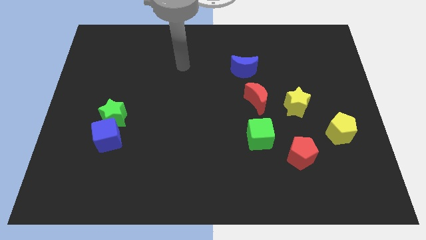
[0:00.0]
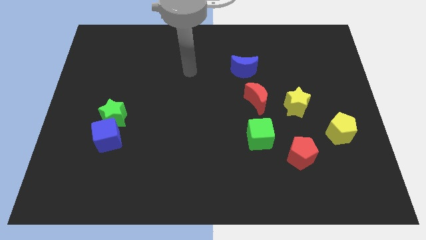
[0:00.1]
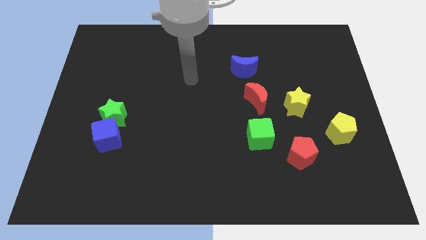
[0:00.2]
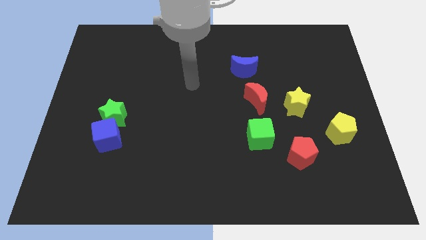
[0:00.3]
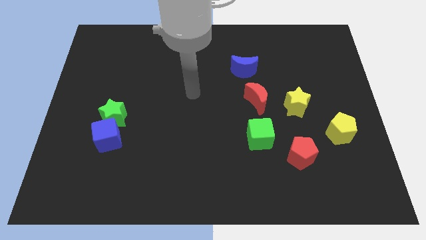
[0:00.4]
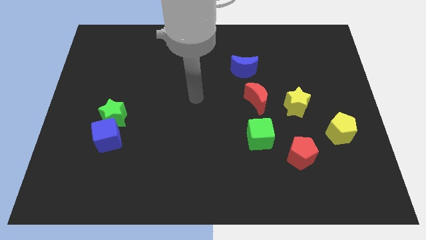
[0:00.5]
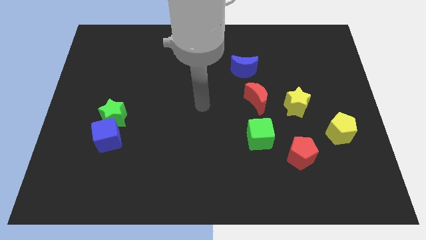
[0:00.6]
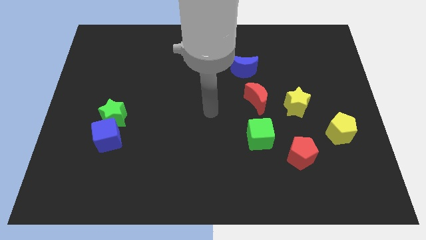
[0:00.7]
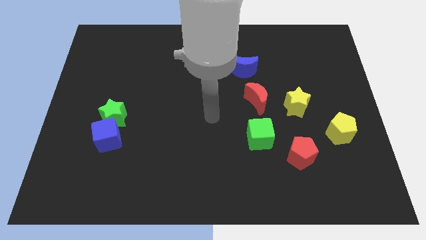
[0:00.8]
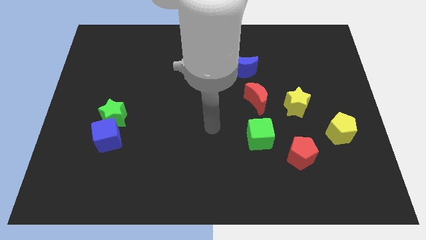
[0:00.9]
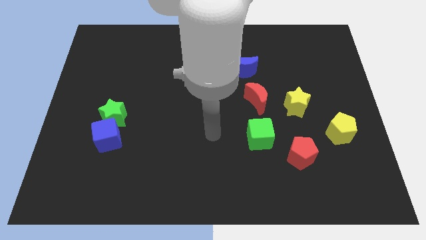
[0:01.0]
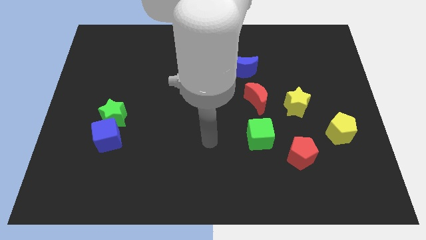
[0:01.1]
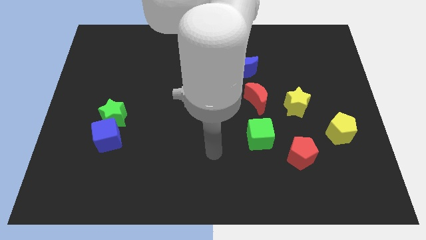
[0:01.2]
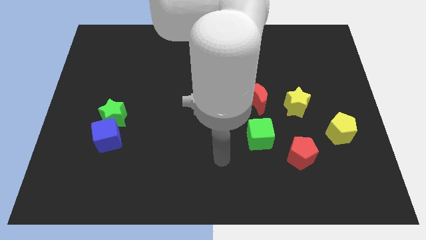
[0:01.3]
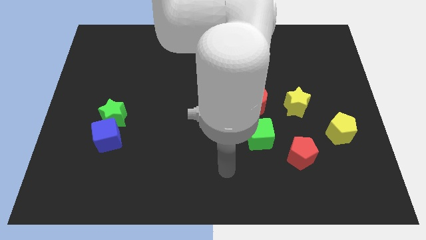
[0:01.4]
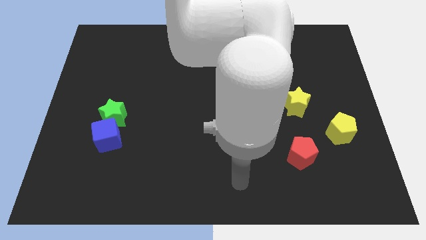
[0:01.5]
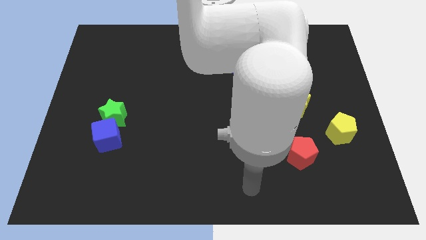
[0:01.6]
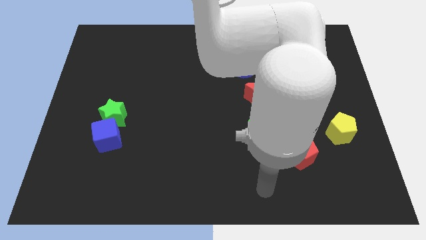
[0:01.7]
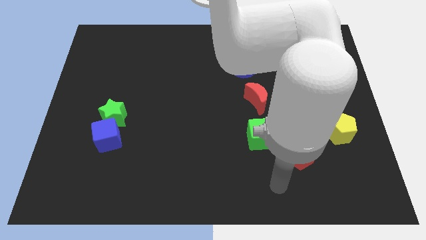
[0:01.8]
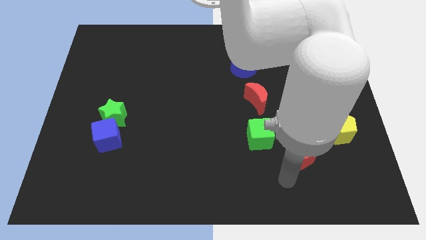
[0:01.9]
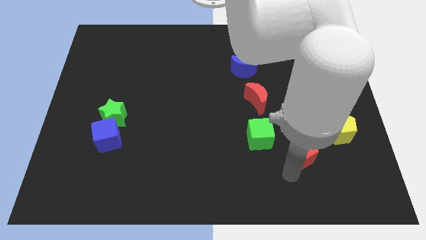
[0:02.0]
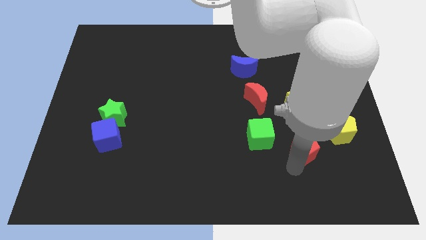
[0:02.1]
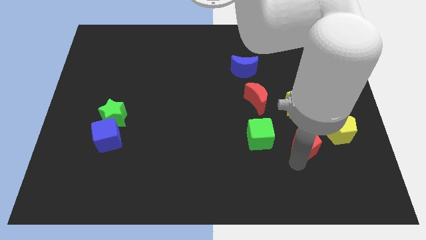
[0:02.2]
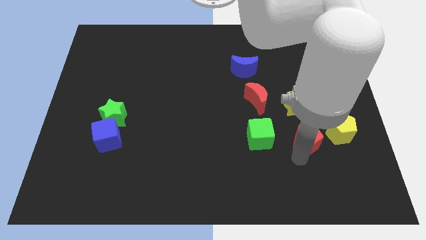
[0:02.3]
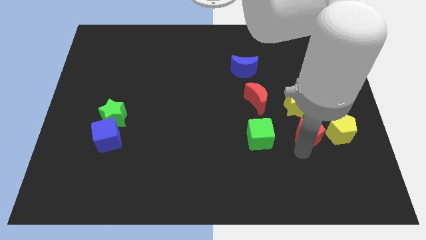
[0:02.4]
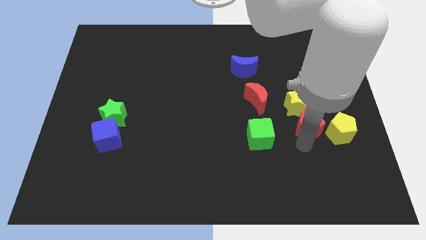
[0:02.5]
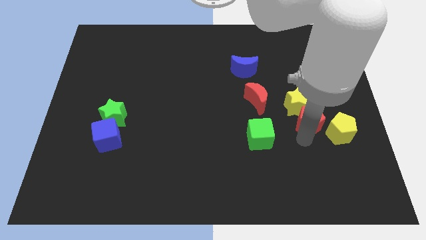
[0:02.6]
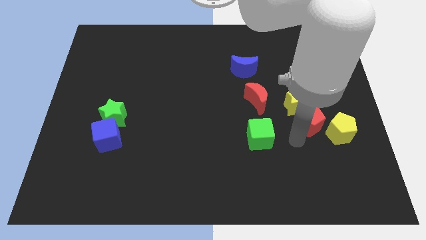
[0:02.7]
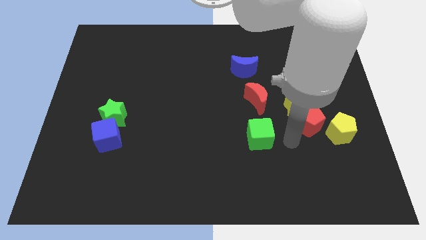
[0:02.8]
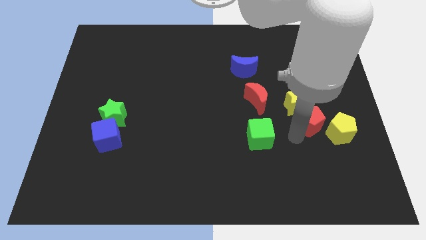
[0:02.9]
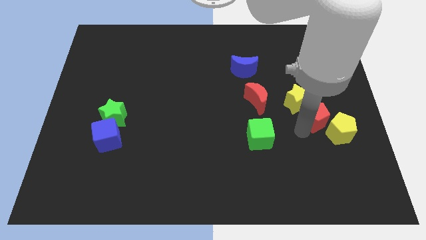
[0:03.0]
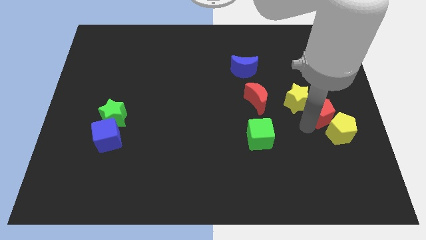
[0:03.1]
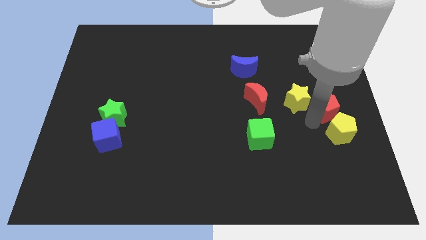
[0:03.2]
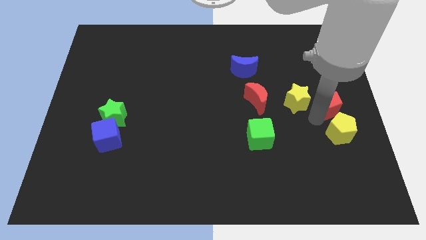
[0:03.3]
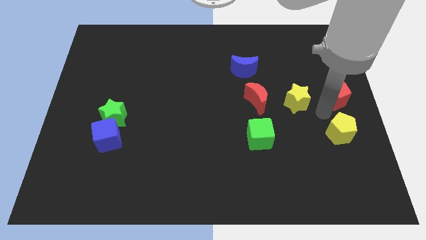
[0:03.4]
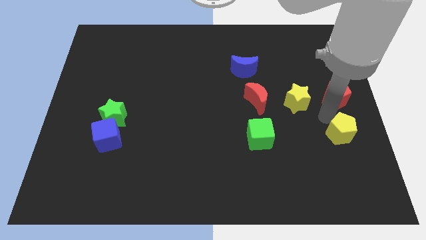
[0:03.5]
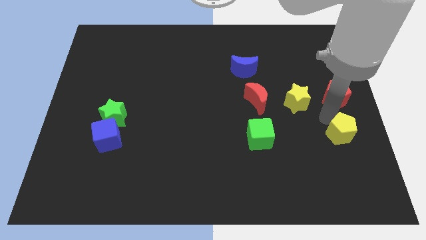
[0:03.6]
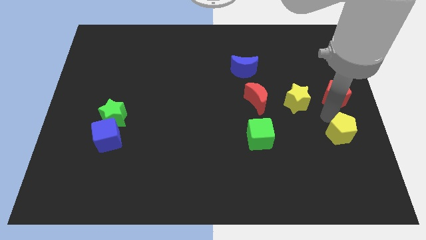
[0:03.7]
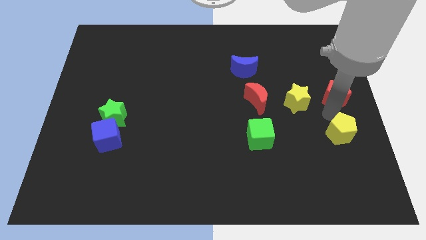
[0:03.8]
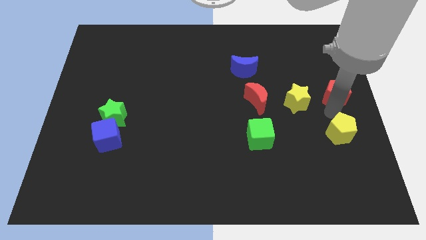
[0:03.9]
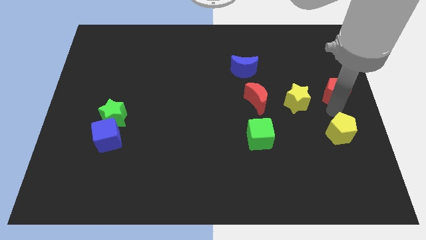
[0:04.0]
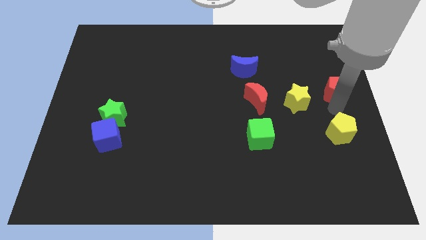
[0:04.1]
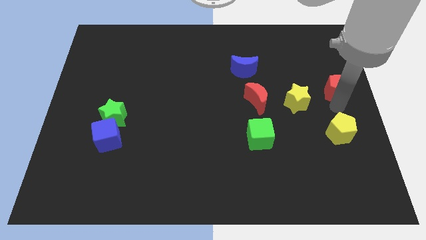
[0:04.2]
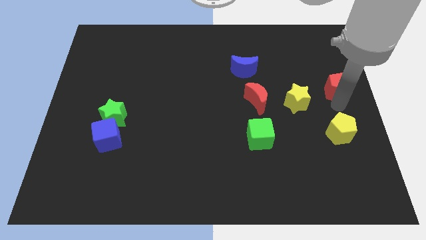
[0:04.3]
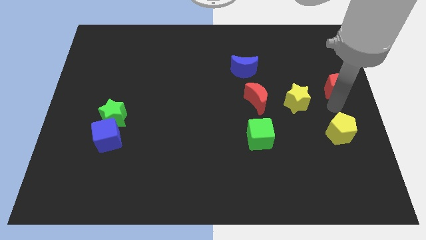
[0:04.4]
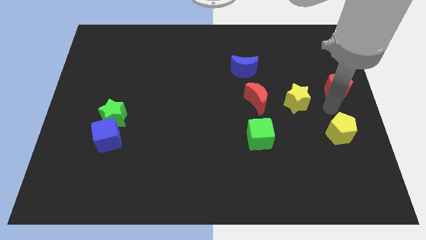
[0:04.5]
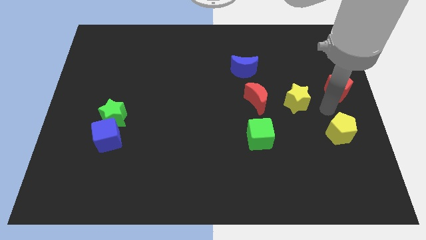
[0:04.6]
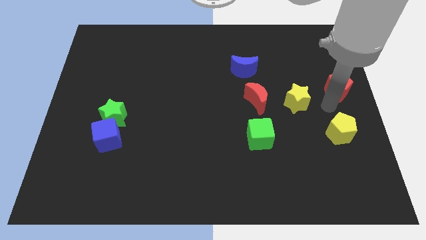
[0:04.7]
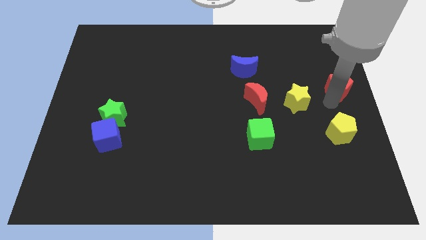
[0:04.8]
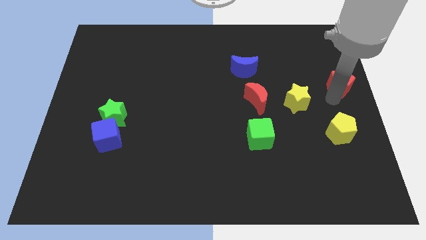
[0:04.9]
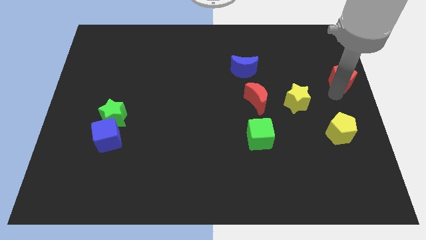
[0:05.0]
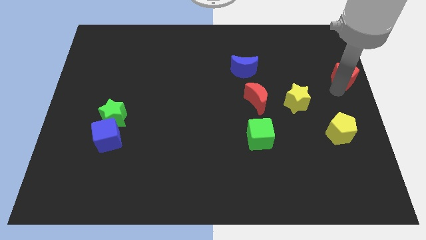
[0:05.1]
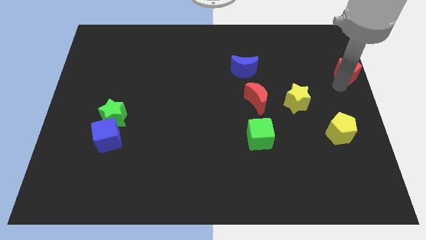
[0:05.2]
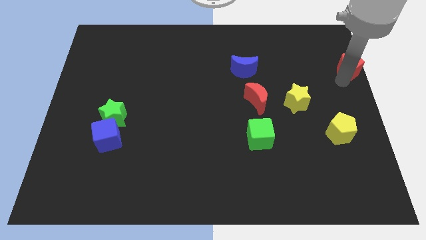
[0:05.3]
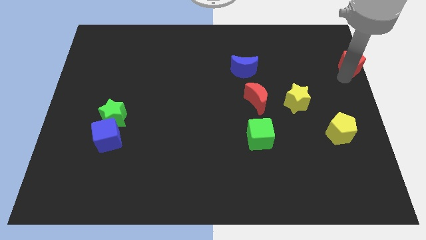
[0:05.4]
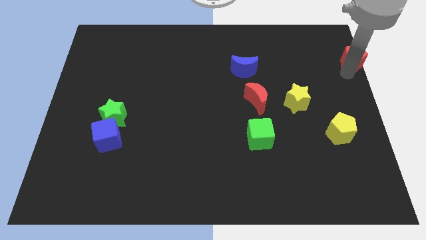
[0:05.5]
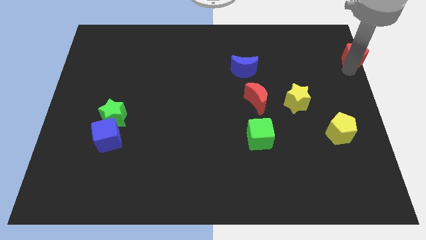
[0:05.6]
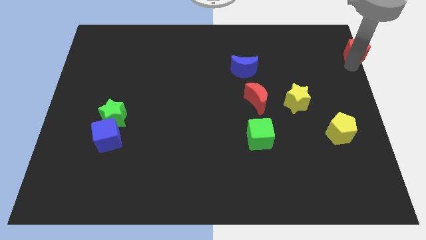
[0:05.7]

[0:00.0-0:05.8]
move the red pentagon to the upper right corner
